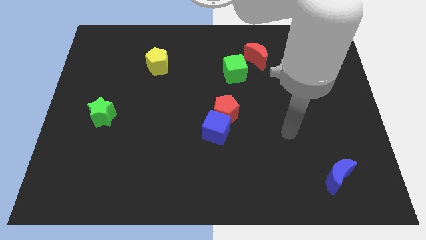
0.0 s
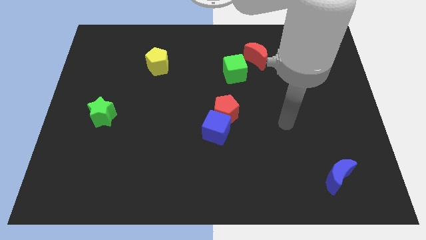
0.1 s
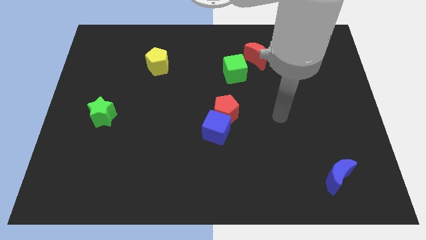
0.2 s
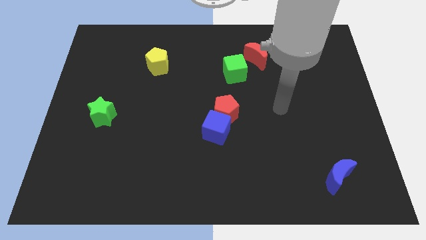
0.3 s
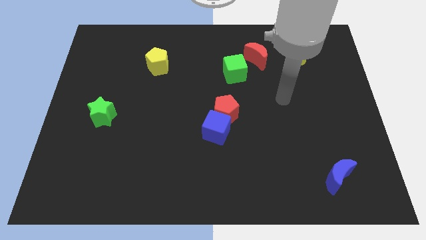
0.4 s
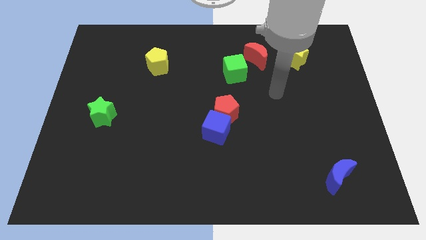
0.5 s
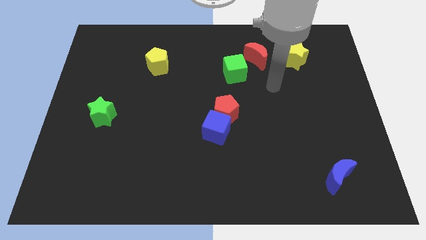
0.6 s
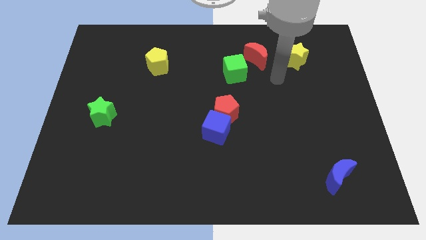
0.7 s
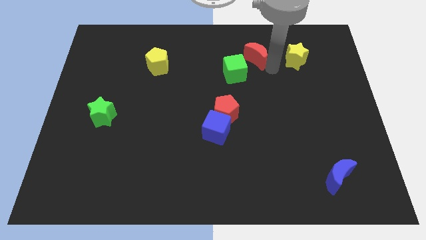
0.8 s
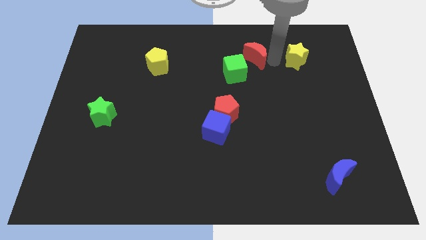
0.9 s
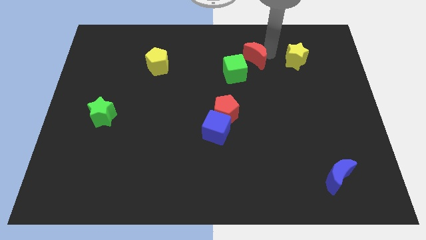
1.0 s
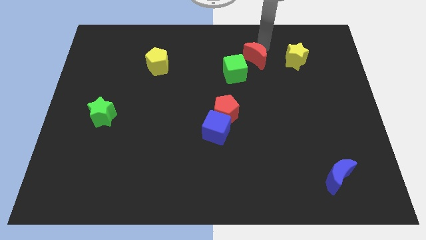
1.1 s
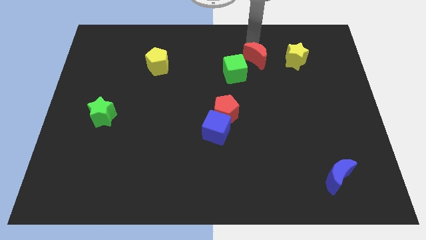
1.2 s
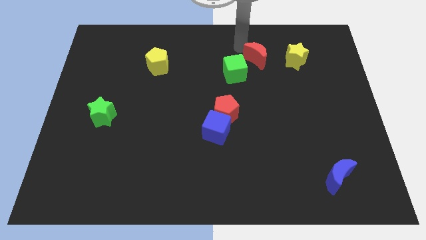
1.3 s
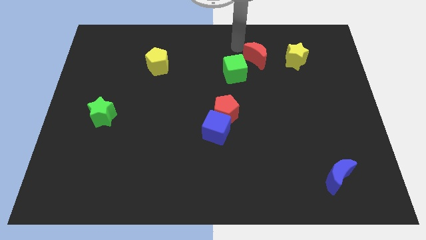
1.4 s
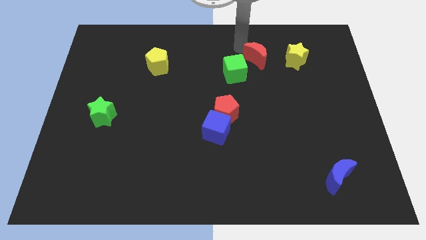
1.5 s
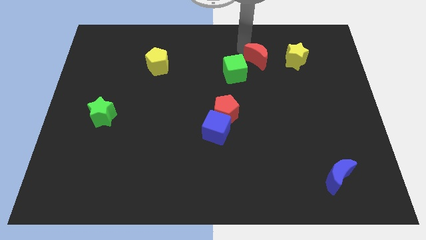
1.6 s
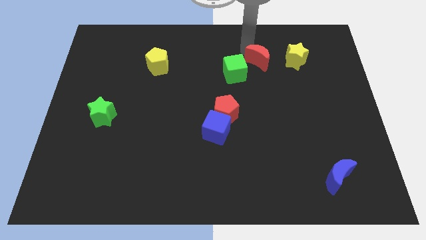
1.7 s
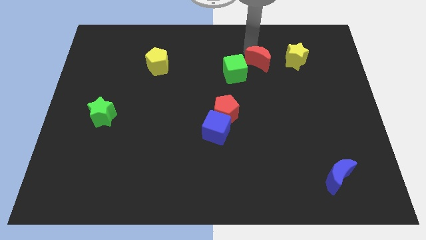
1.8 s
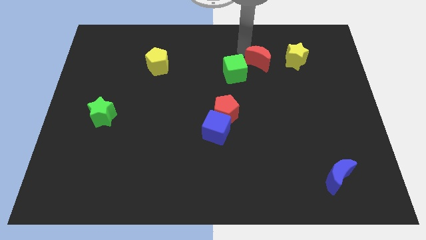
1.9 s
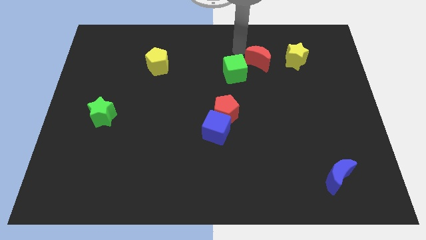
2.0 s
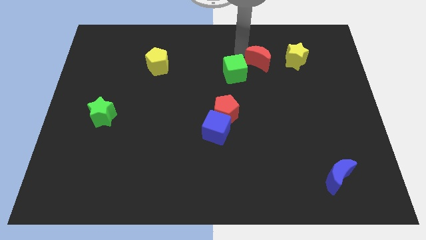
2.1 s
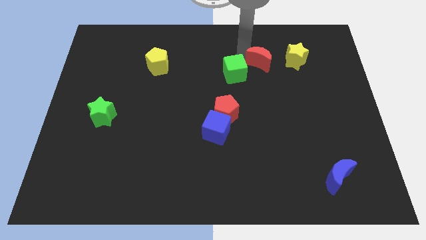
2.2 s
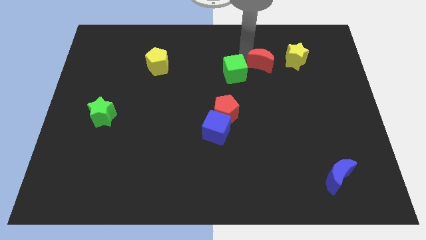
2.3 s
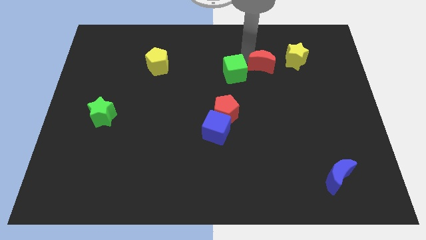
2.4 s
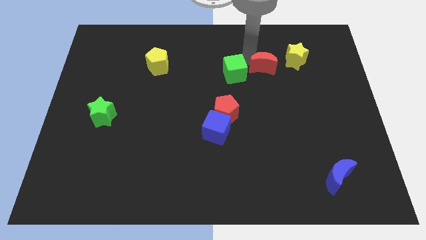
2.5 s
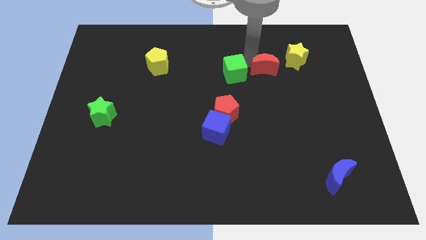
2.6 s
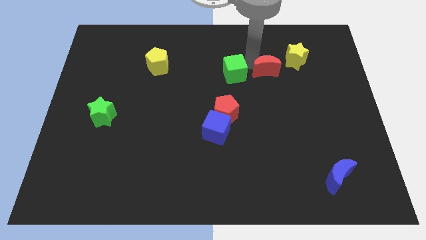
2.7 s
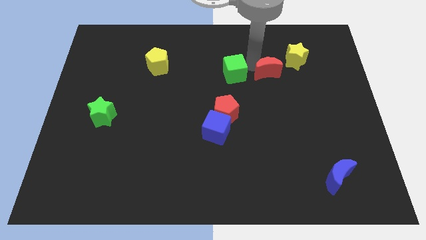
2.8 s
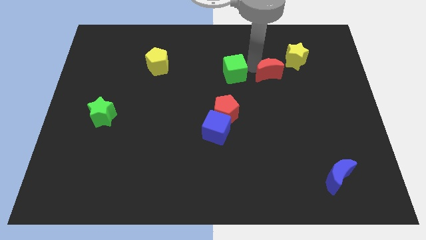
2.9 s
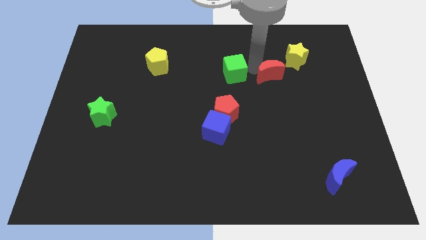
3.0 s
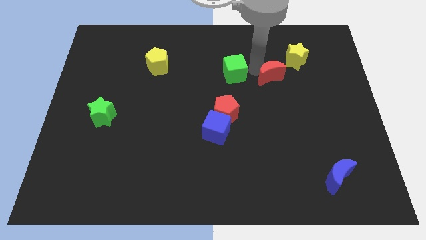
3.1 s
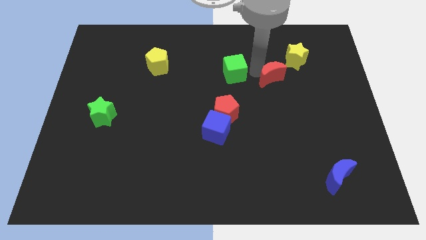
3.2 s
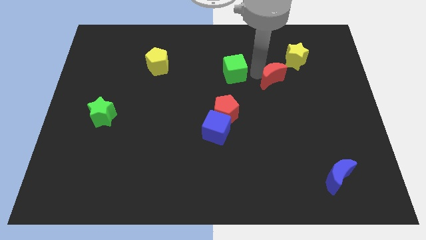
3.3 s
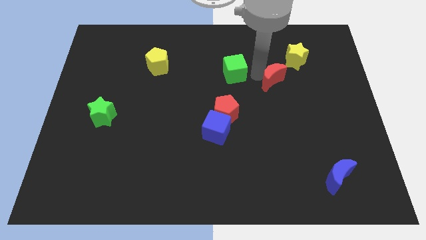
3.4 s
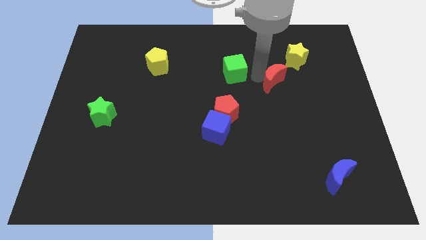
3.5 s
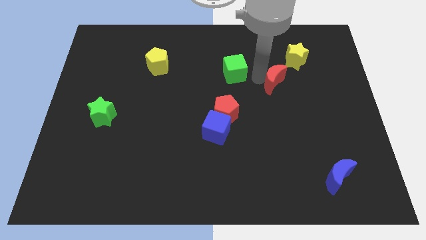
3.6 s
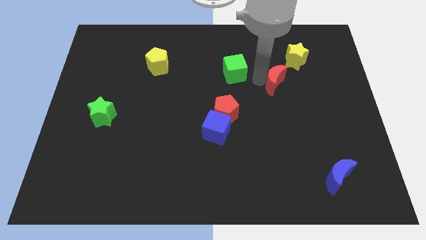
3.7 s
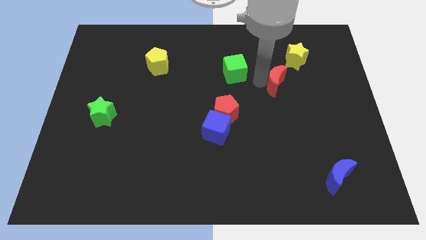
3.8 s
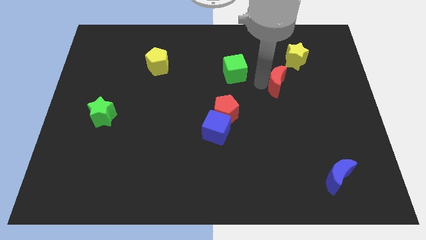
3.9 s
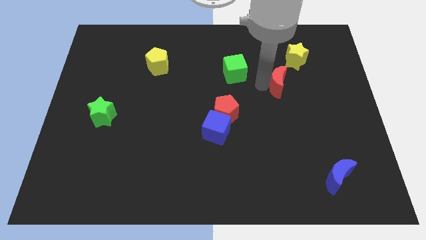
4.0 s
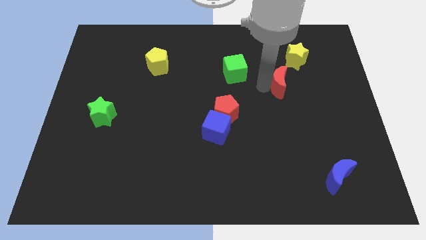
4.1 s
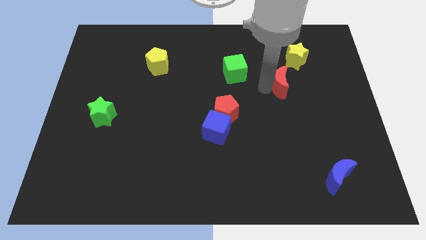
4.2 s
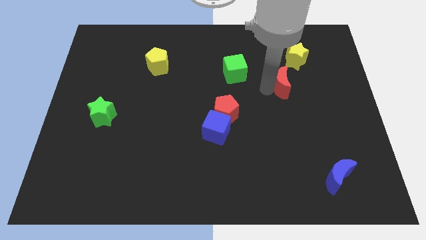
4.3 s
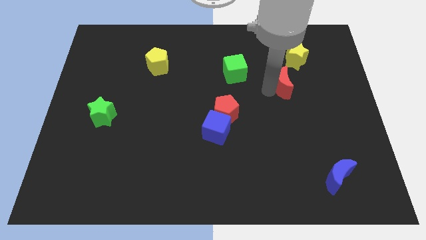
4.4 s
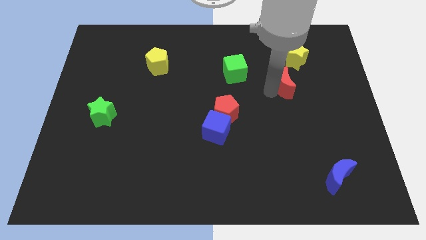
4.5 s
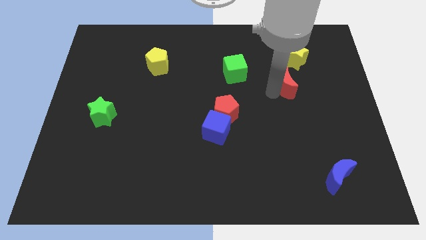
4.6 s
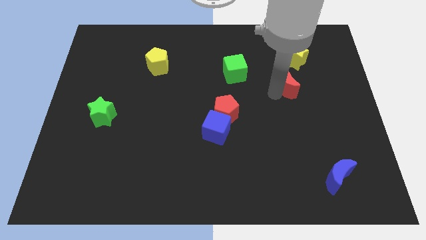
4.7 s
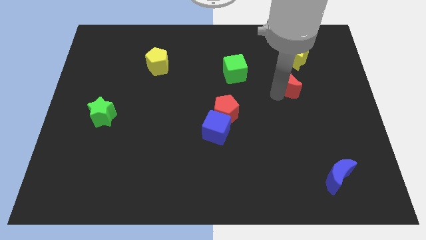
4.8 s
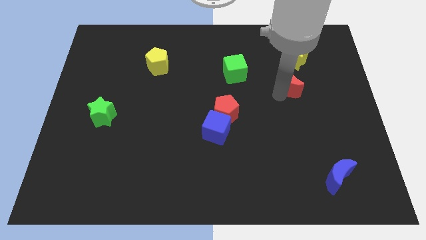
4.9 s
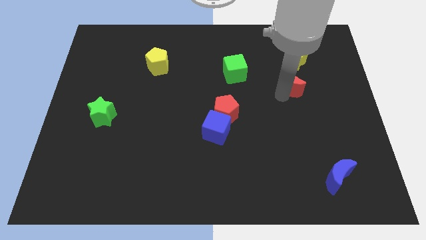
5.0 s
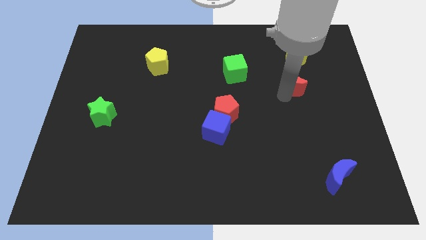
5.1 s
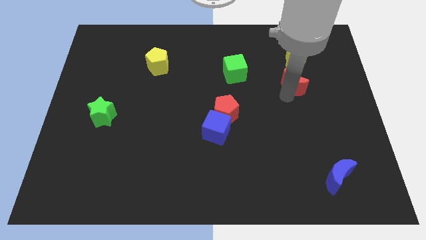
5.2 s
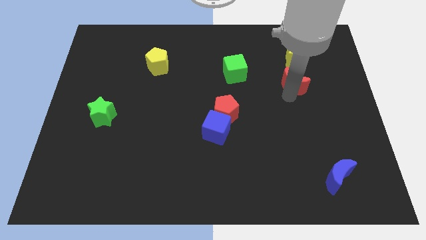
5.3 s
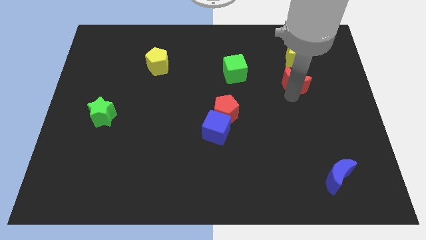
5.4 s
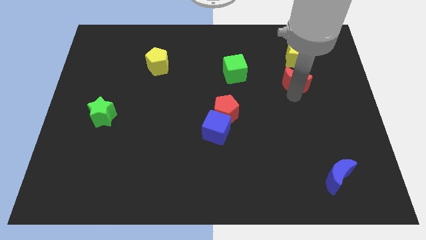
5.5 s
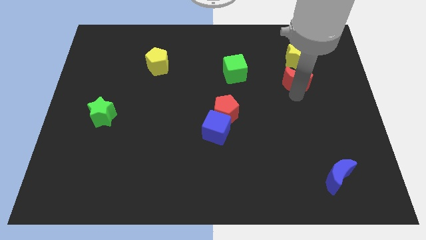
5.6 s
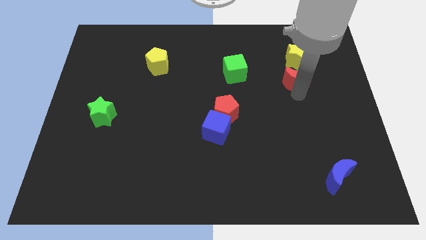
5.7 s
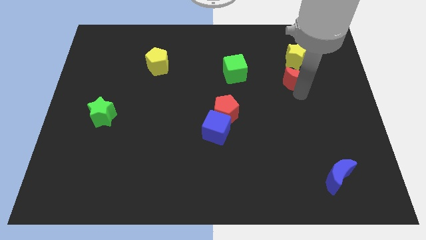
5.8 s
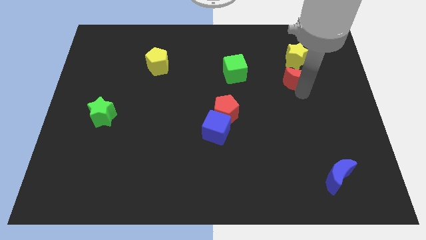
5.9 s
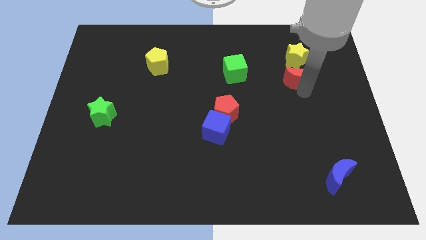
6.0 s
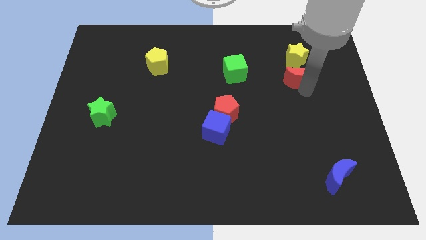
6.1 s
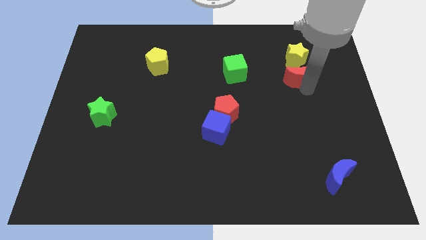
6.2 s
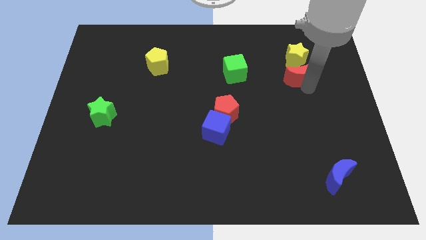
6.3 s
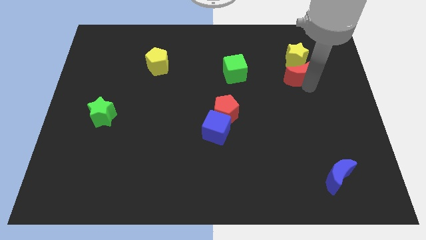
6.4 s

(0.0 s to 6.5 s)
put the red moon diagonally down and to the right of the yellow star

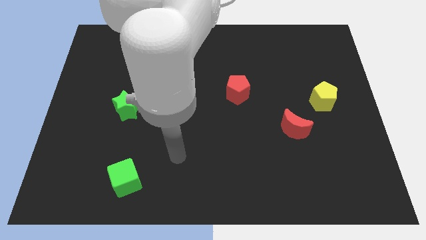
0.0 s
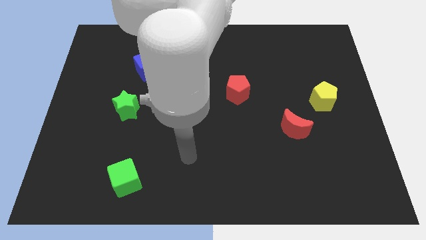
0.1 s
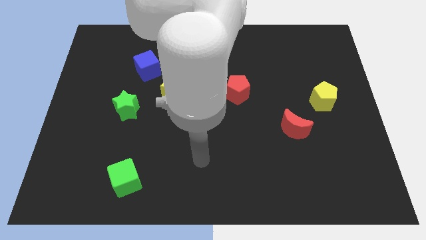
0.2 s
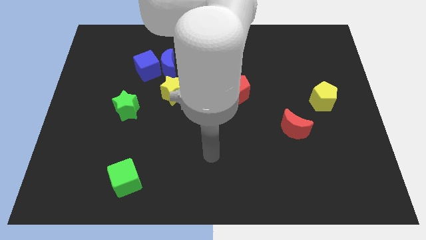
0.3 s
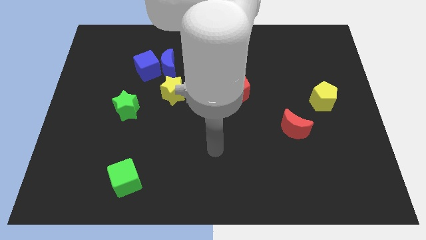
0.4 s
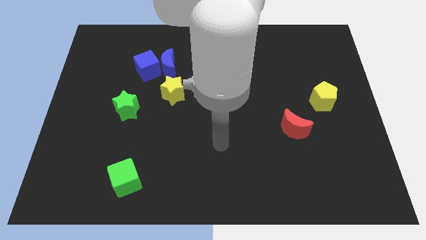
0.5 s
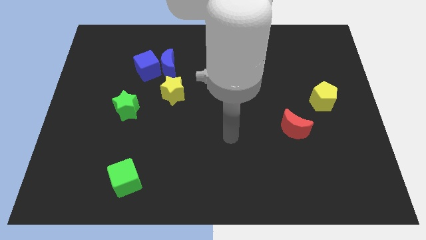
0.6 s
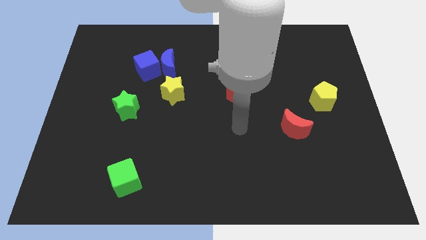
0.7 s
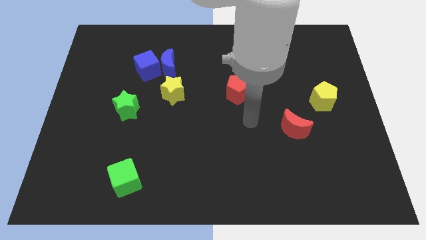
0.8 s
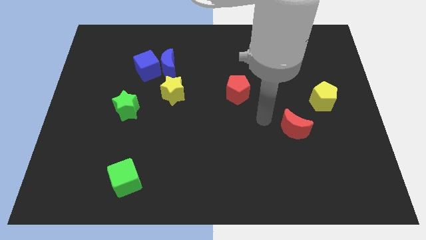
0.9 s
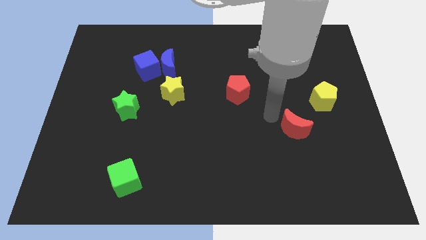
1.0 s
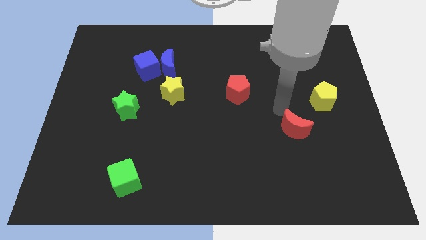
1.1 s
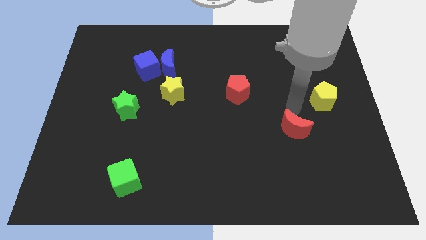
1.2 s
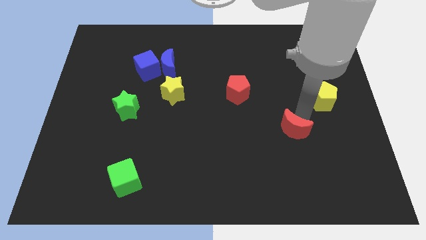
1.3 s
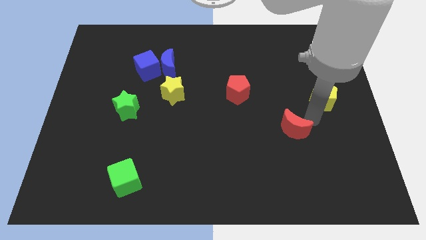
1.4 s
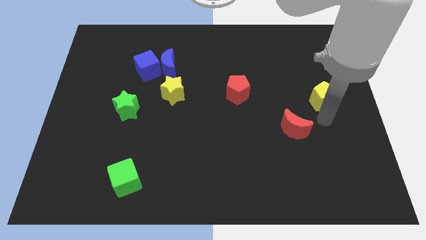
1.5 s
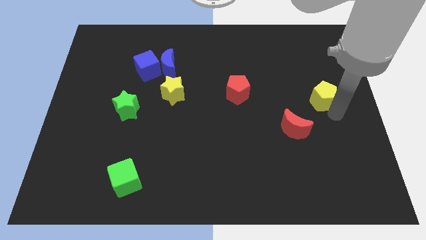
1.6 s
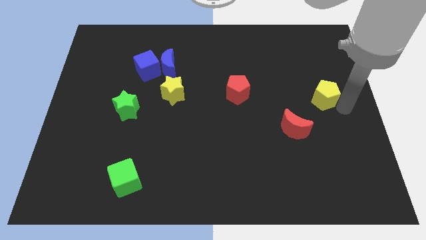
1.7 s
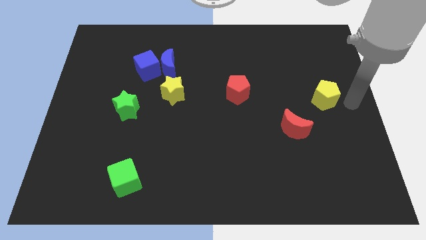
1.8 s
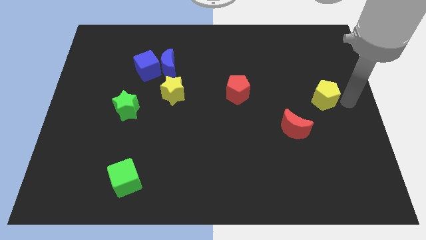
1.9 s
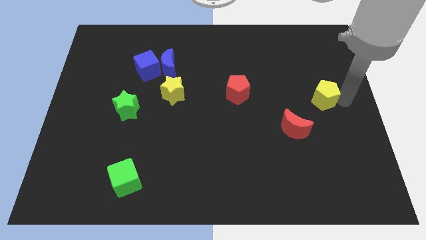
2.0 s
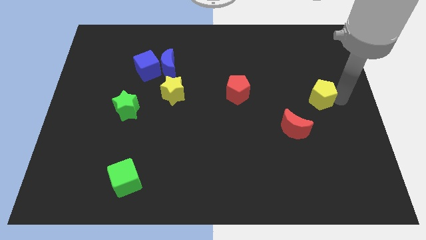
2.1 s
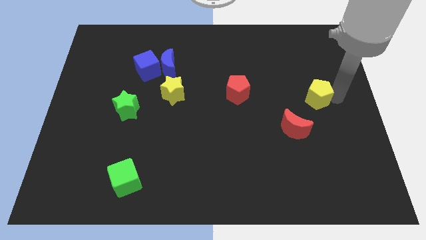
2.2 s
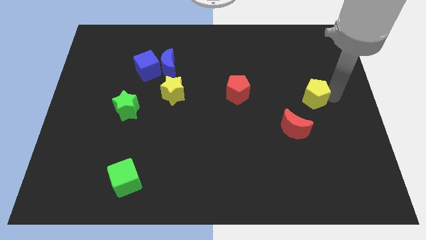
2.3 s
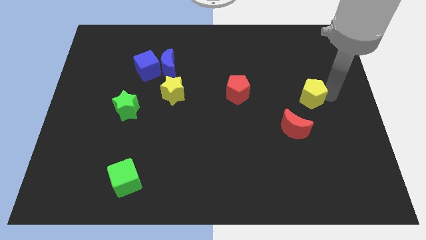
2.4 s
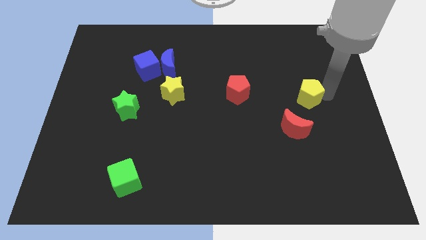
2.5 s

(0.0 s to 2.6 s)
move the yellow pentagon to the top of the red moon
